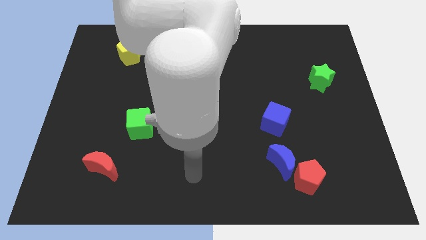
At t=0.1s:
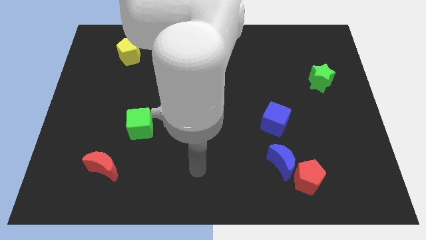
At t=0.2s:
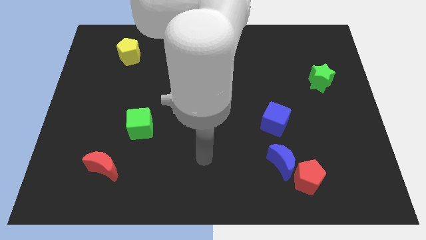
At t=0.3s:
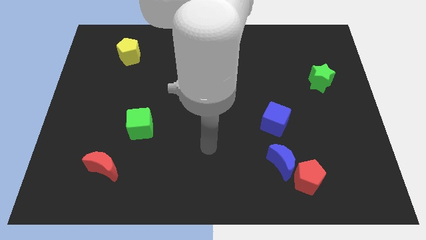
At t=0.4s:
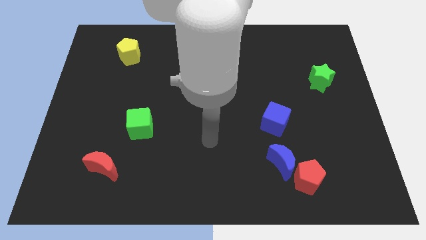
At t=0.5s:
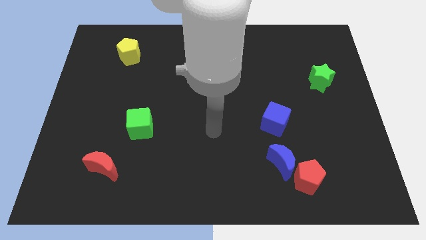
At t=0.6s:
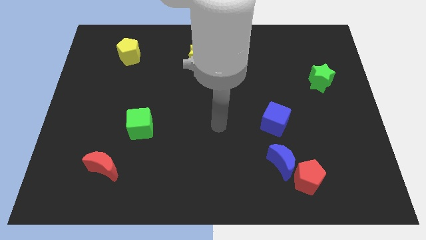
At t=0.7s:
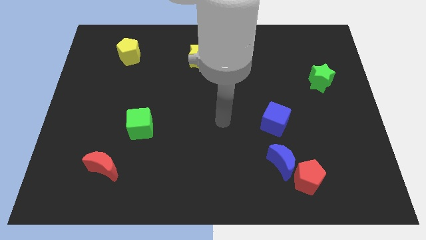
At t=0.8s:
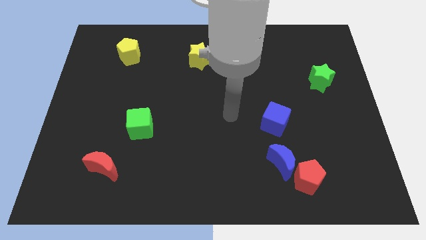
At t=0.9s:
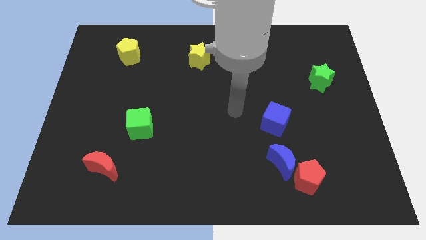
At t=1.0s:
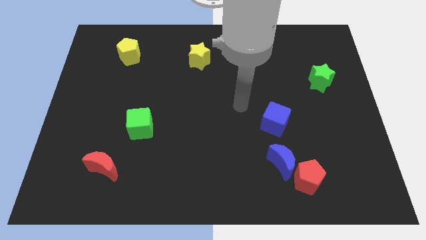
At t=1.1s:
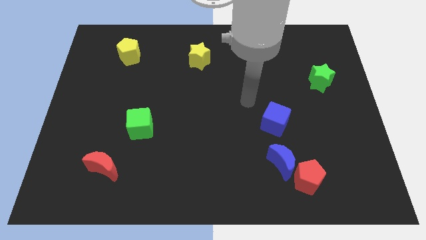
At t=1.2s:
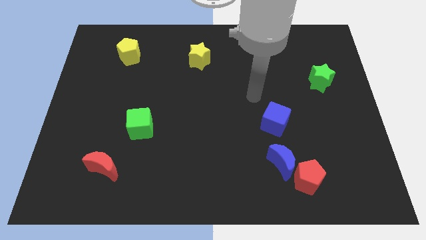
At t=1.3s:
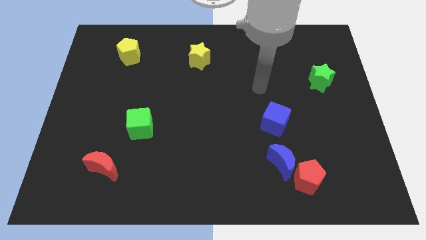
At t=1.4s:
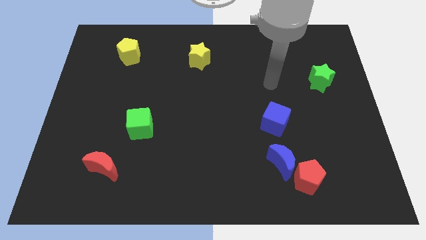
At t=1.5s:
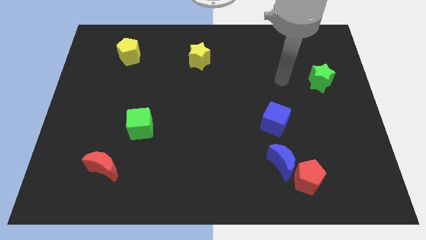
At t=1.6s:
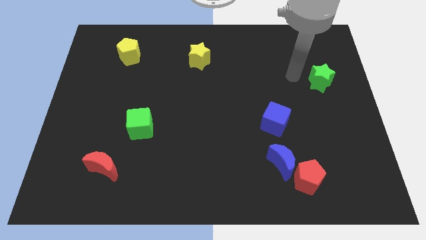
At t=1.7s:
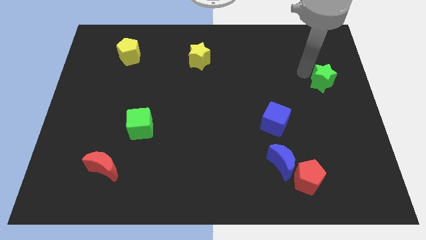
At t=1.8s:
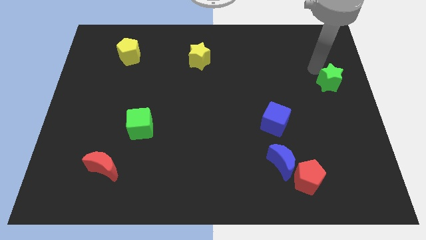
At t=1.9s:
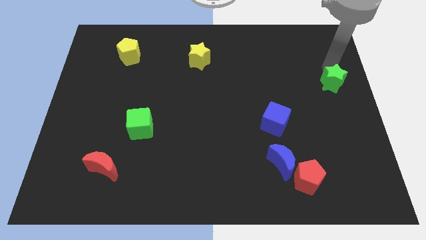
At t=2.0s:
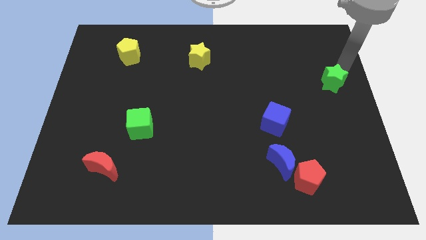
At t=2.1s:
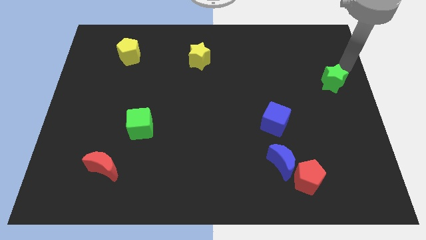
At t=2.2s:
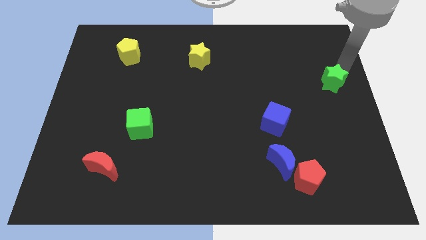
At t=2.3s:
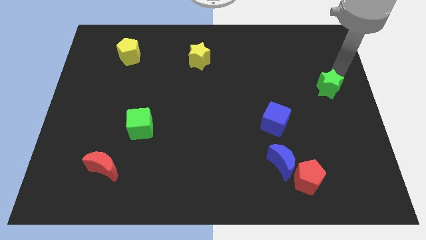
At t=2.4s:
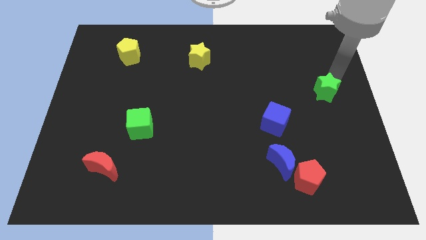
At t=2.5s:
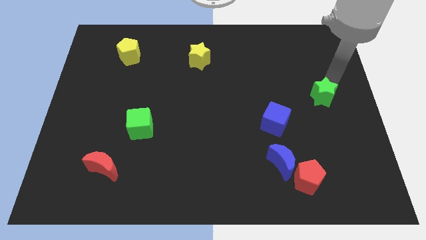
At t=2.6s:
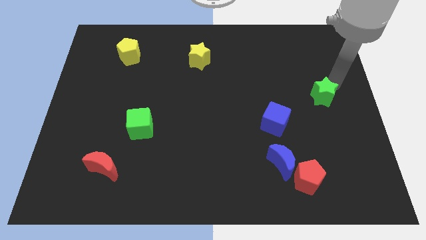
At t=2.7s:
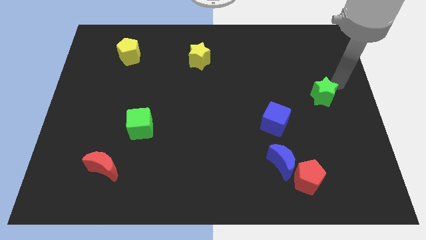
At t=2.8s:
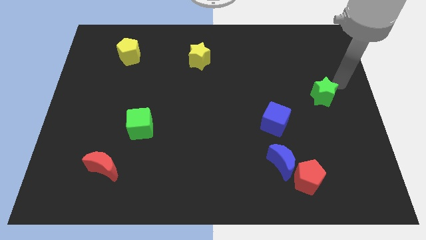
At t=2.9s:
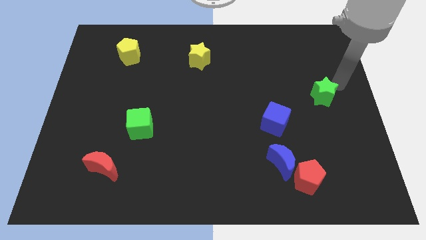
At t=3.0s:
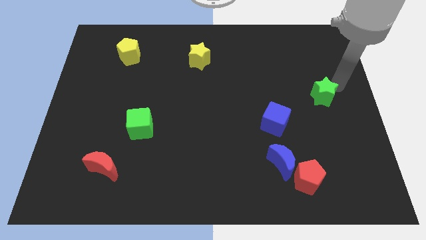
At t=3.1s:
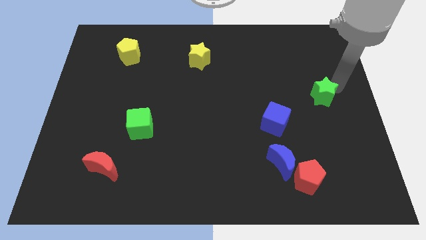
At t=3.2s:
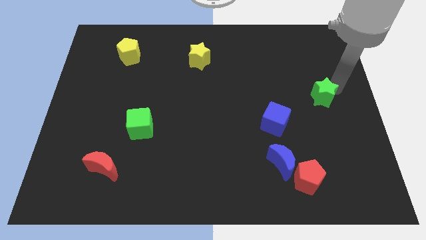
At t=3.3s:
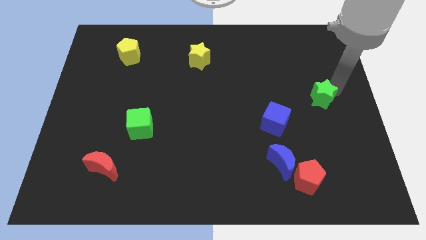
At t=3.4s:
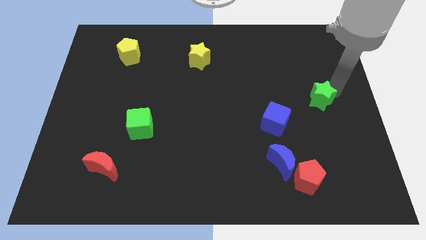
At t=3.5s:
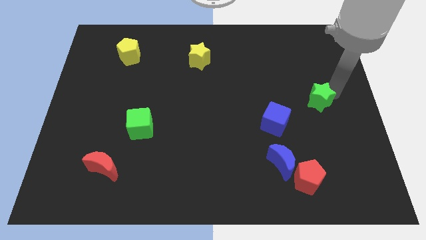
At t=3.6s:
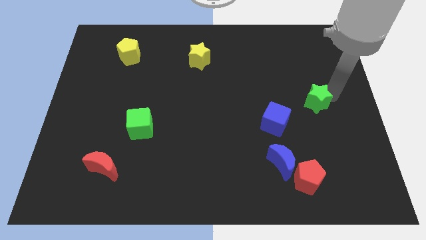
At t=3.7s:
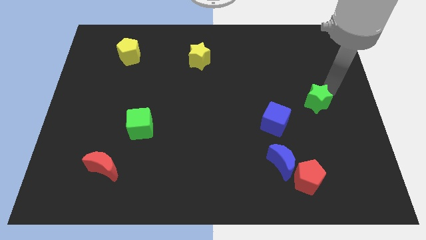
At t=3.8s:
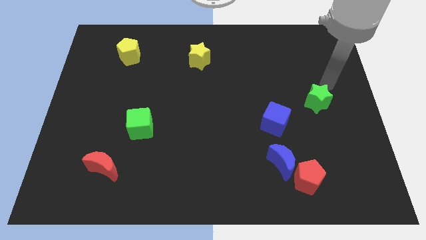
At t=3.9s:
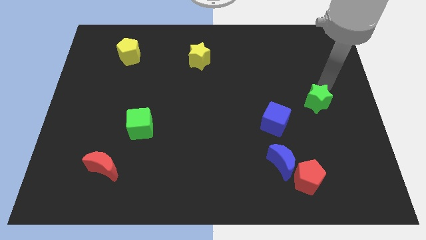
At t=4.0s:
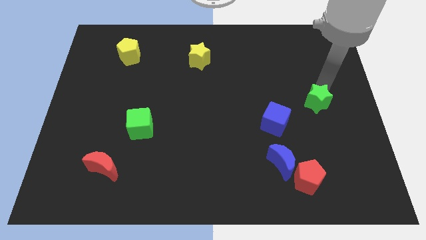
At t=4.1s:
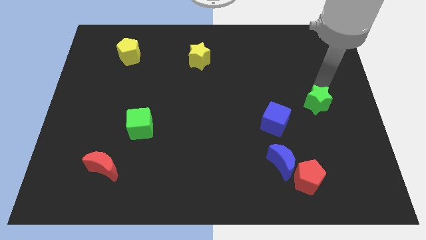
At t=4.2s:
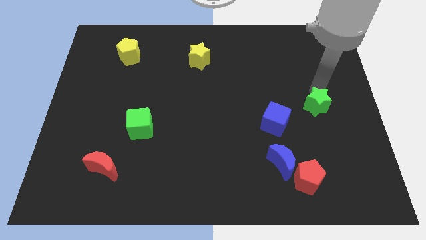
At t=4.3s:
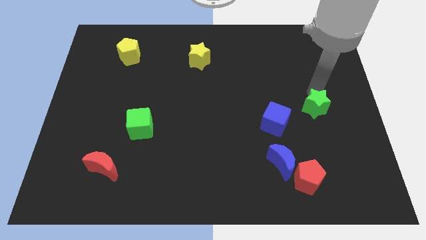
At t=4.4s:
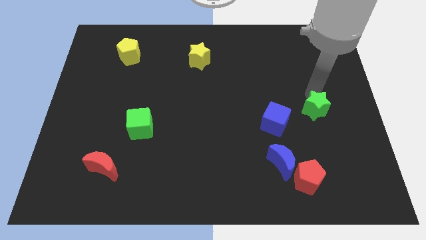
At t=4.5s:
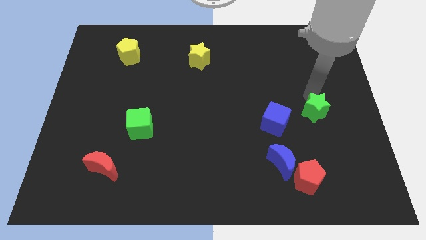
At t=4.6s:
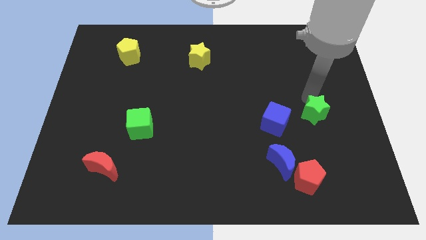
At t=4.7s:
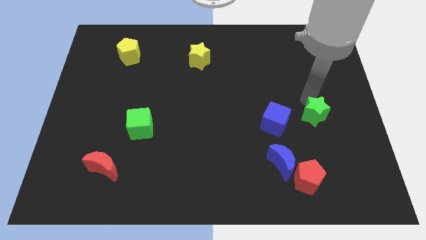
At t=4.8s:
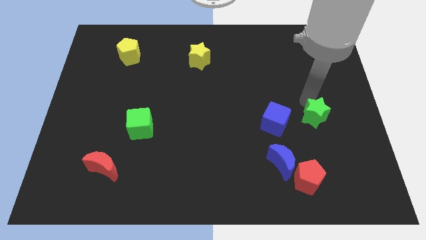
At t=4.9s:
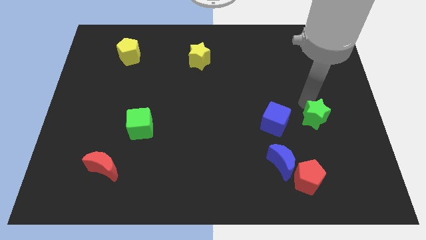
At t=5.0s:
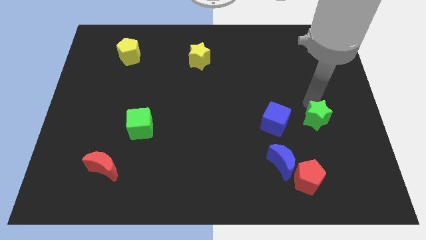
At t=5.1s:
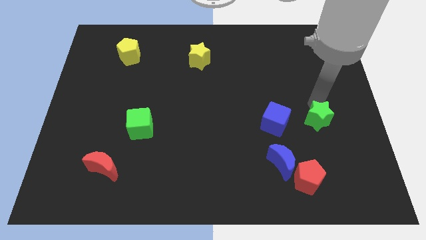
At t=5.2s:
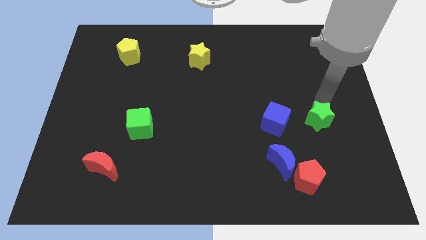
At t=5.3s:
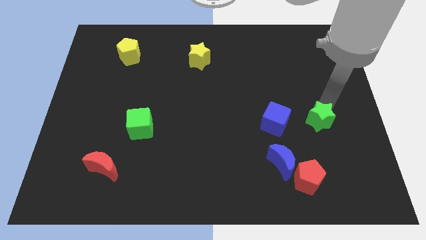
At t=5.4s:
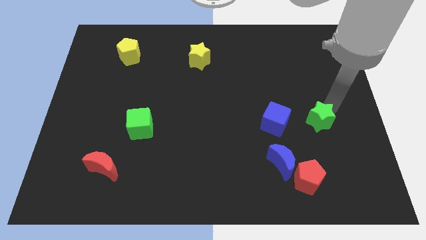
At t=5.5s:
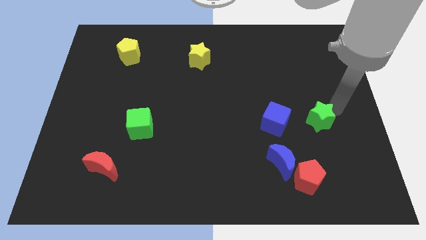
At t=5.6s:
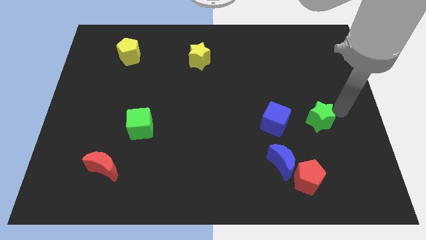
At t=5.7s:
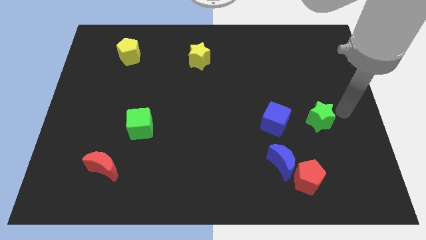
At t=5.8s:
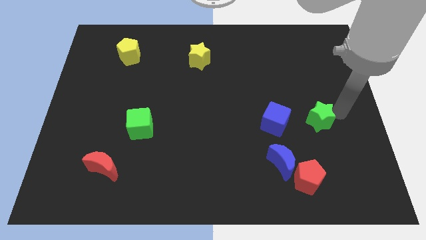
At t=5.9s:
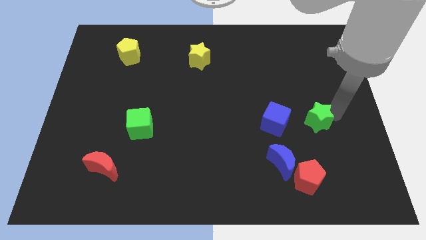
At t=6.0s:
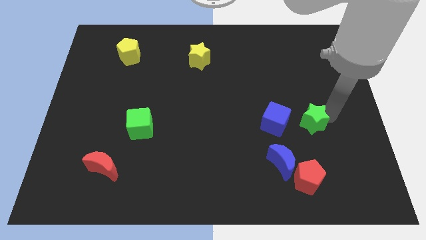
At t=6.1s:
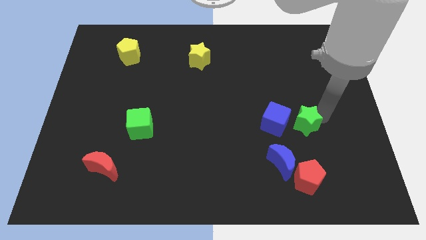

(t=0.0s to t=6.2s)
put the green star to the bottom right side of the blue cube

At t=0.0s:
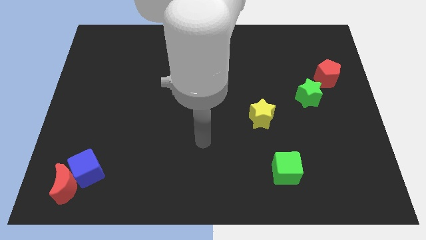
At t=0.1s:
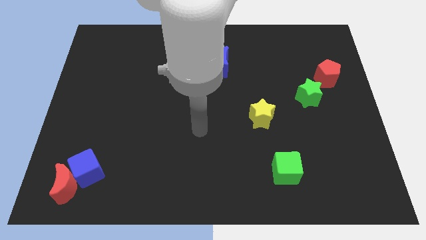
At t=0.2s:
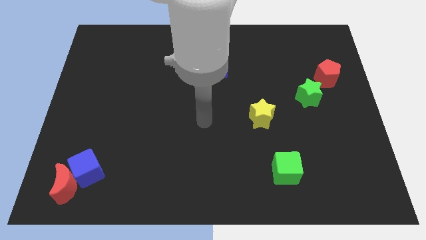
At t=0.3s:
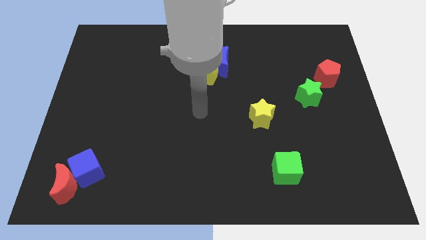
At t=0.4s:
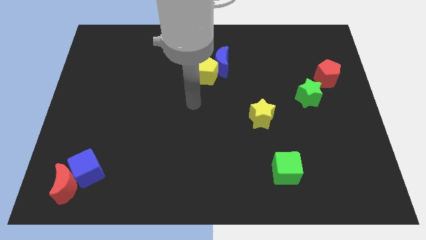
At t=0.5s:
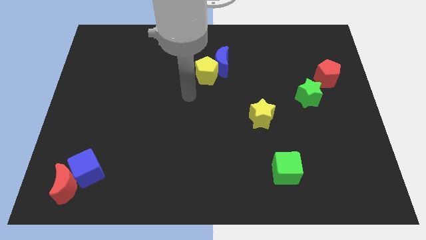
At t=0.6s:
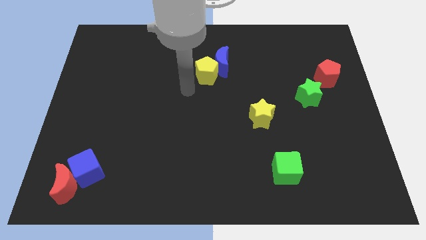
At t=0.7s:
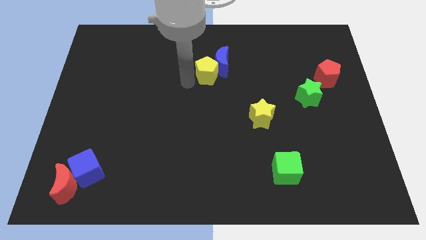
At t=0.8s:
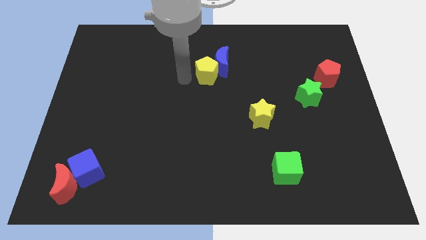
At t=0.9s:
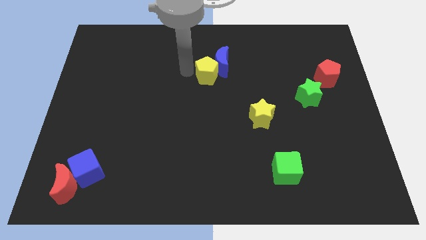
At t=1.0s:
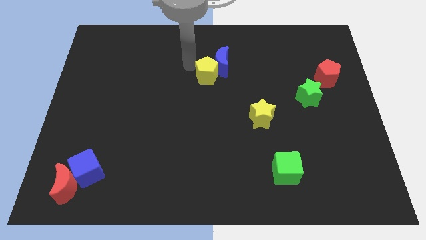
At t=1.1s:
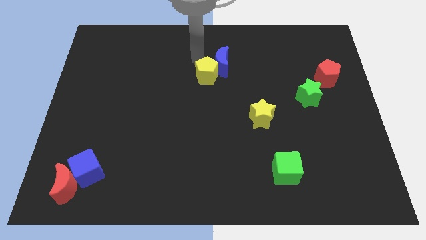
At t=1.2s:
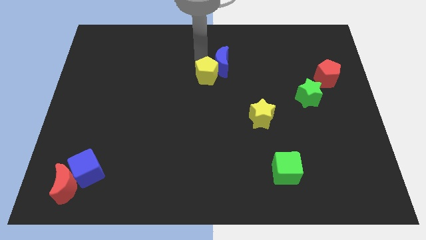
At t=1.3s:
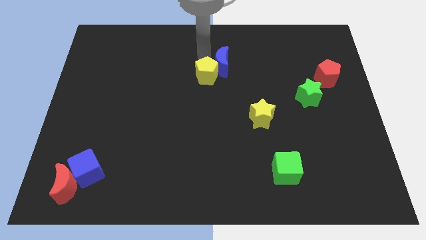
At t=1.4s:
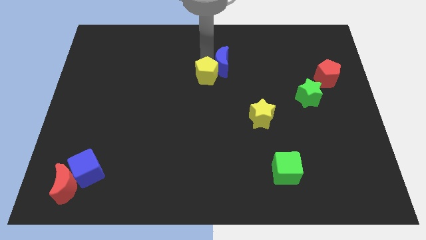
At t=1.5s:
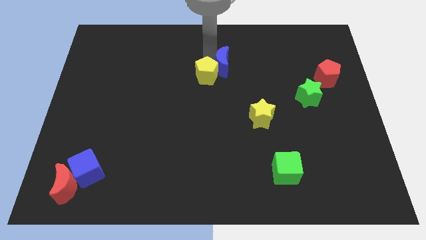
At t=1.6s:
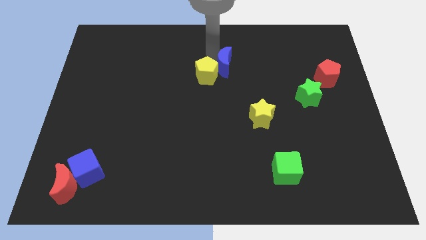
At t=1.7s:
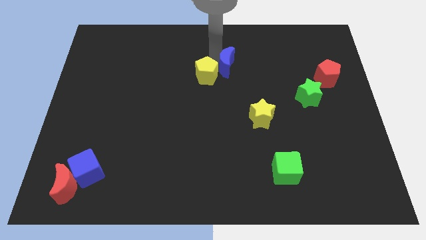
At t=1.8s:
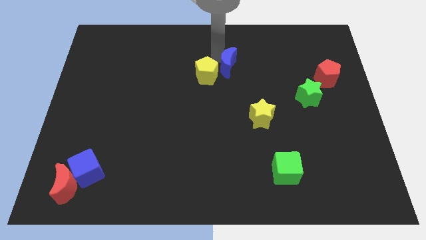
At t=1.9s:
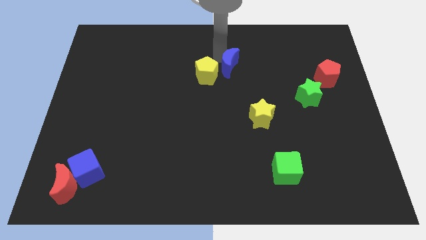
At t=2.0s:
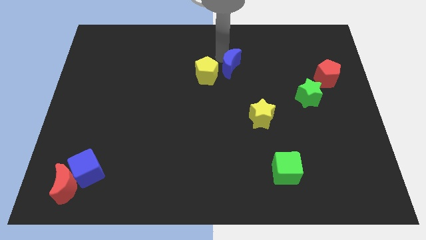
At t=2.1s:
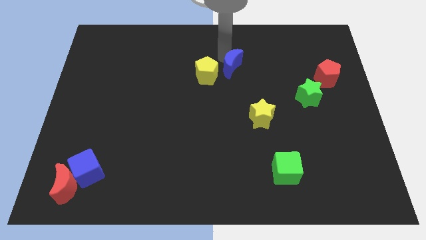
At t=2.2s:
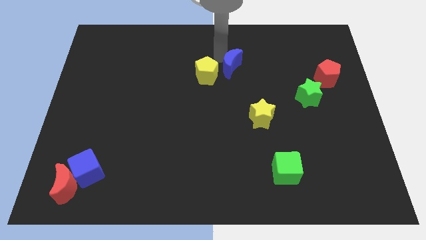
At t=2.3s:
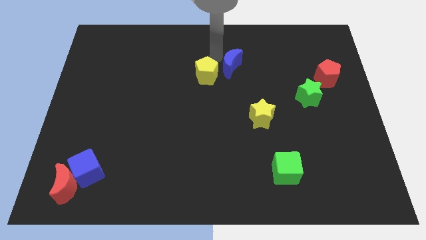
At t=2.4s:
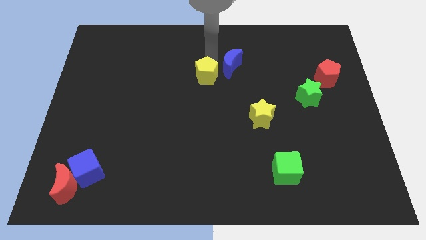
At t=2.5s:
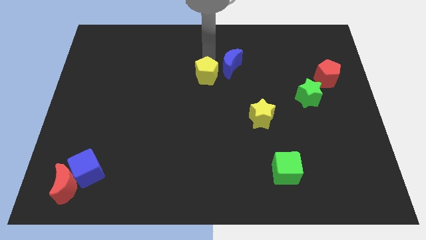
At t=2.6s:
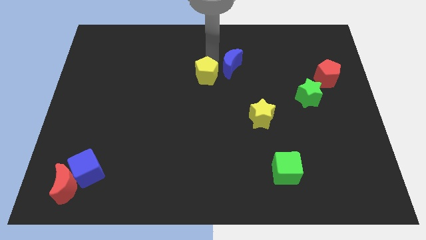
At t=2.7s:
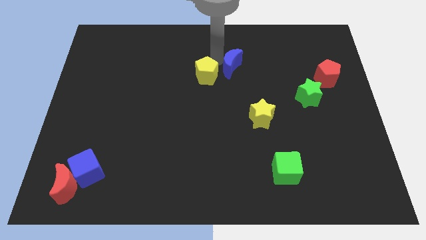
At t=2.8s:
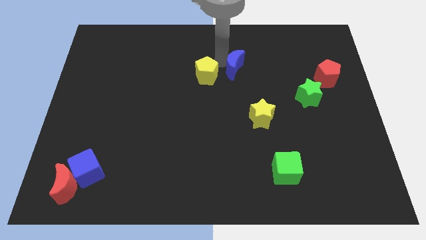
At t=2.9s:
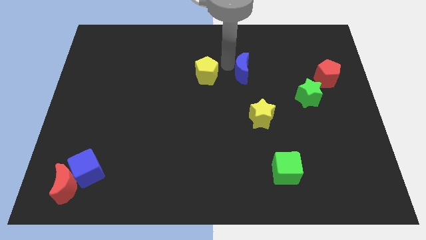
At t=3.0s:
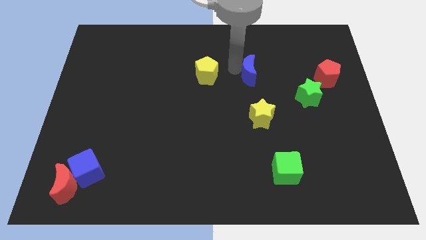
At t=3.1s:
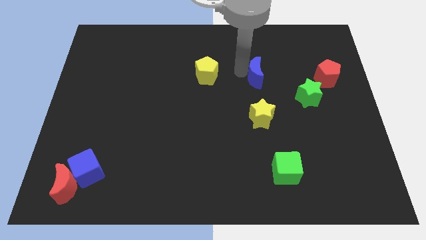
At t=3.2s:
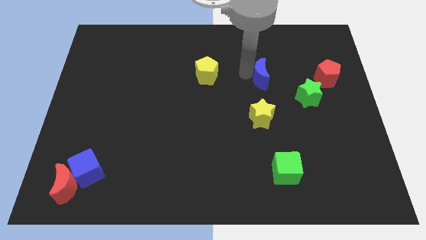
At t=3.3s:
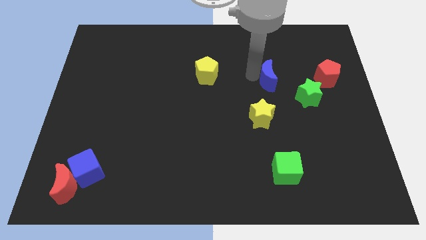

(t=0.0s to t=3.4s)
put the blue moon to the top left of the green star
